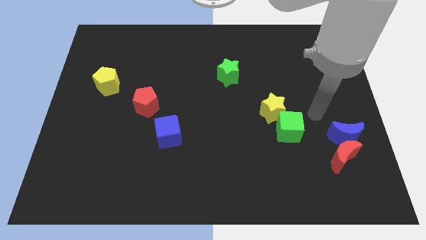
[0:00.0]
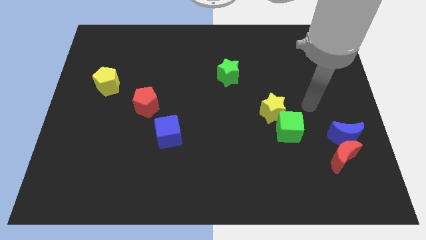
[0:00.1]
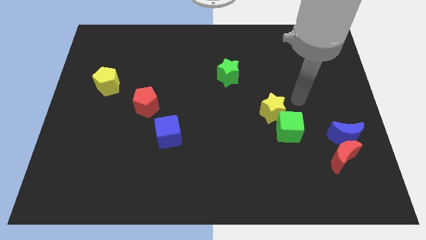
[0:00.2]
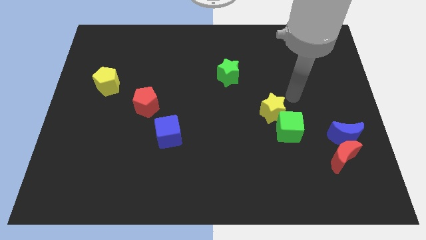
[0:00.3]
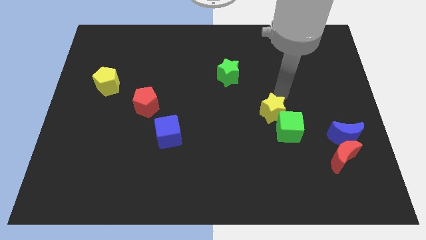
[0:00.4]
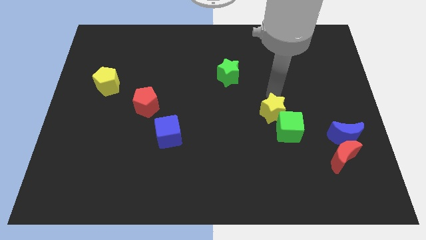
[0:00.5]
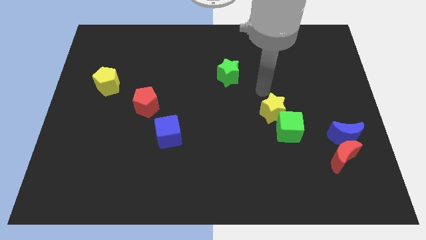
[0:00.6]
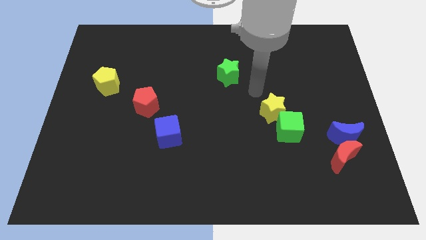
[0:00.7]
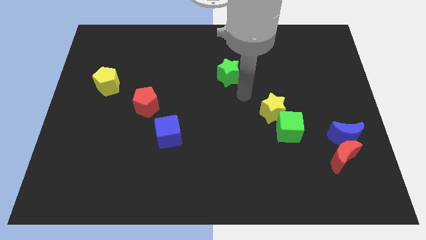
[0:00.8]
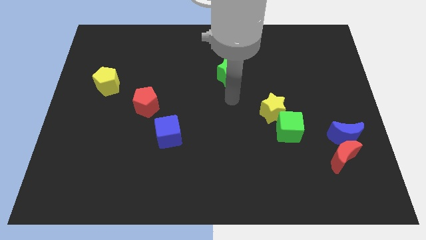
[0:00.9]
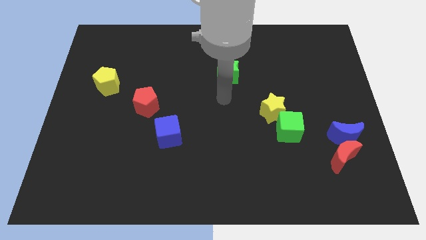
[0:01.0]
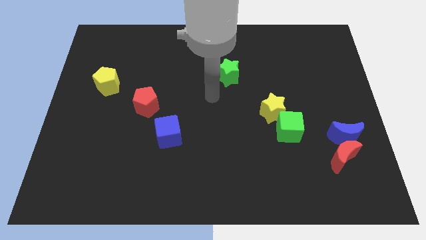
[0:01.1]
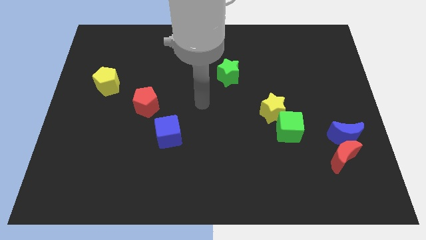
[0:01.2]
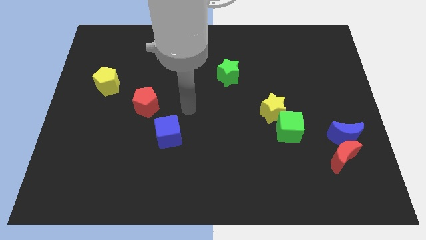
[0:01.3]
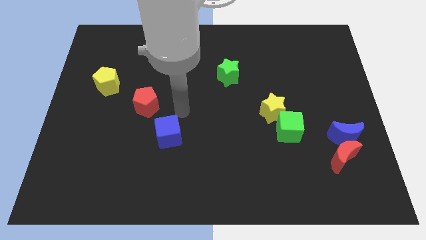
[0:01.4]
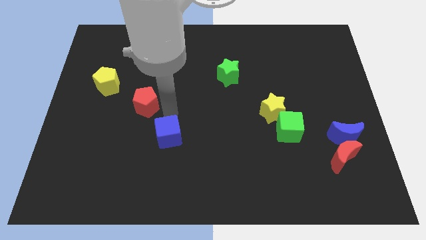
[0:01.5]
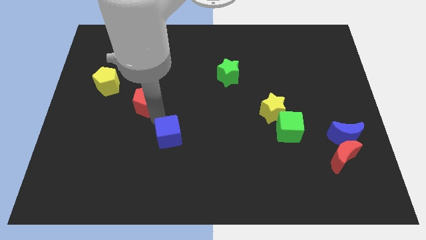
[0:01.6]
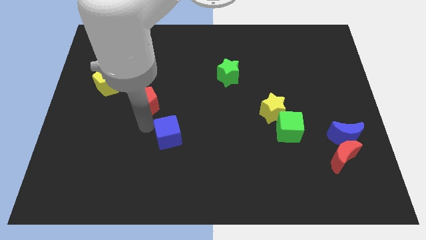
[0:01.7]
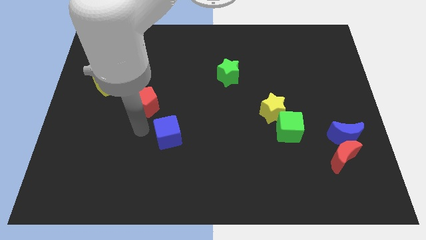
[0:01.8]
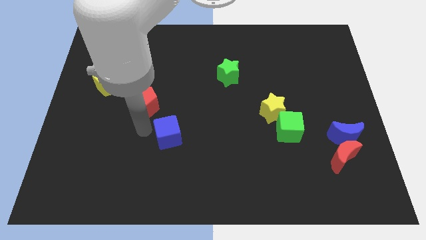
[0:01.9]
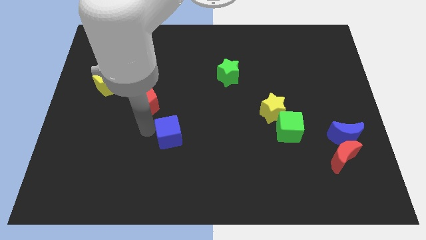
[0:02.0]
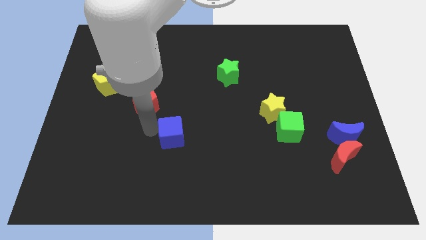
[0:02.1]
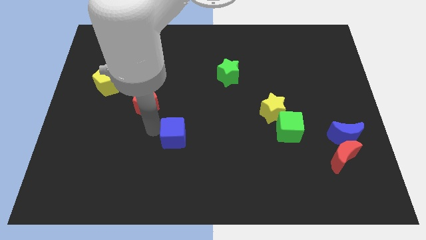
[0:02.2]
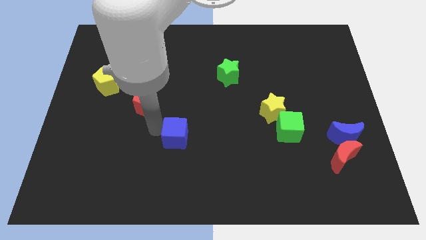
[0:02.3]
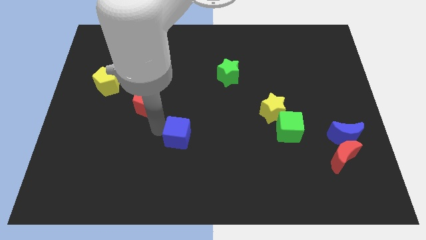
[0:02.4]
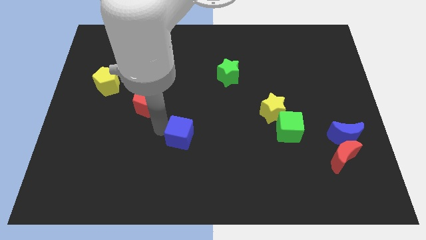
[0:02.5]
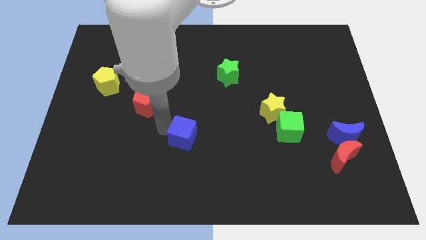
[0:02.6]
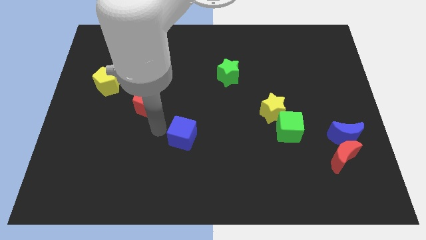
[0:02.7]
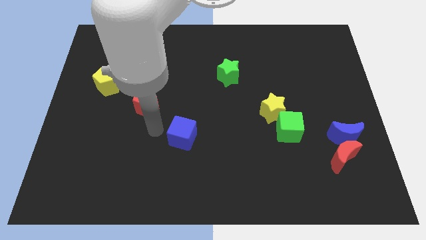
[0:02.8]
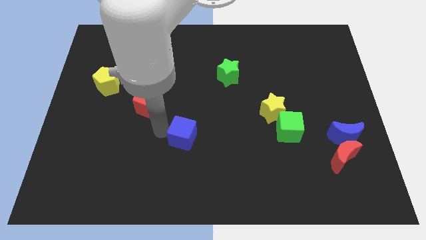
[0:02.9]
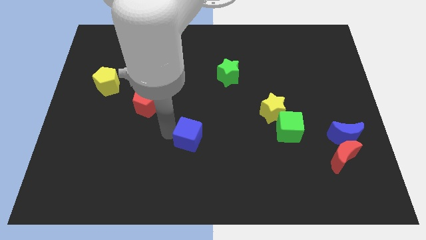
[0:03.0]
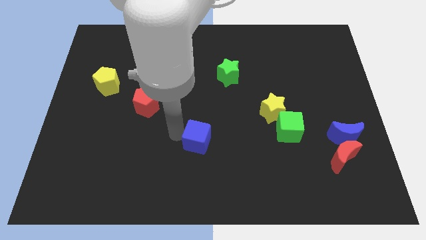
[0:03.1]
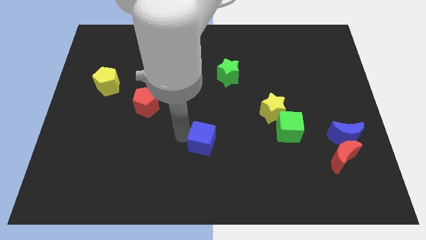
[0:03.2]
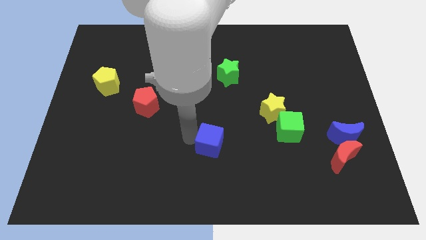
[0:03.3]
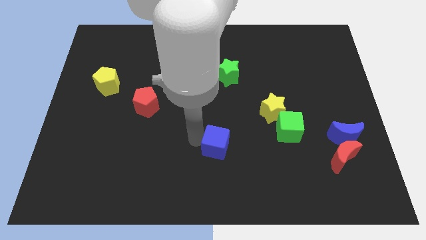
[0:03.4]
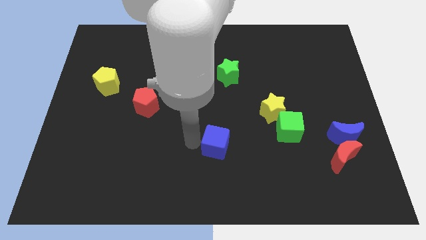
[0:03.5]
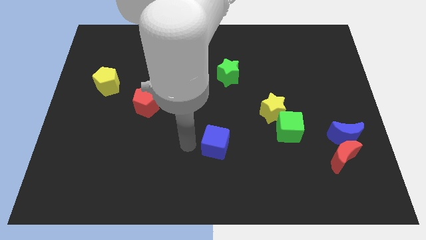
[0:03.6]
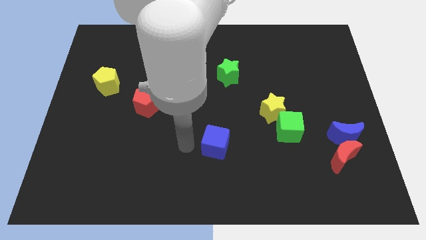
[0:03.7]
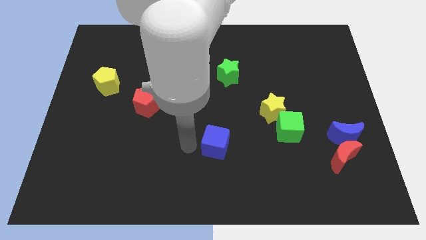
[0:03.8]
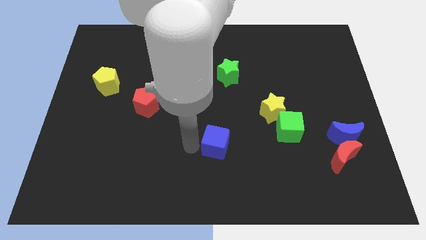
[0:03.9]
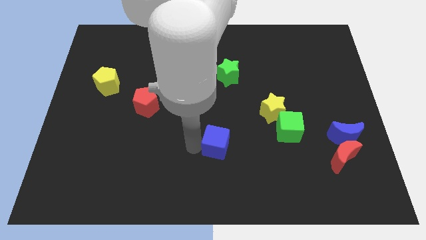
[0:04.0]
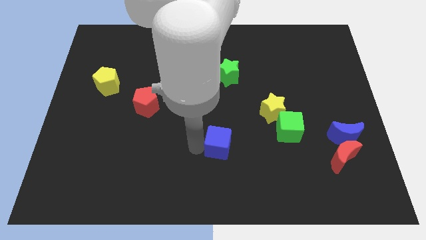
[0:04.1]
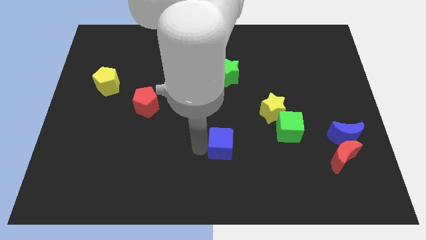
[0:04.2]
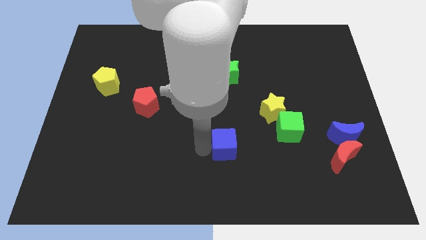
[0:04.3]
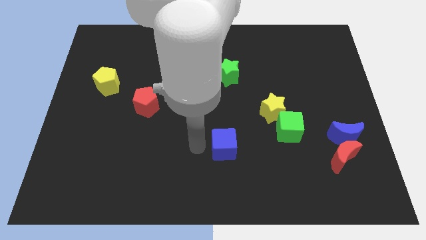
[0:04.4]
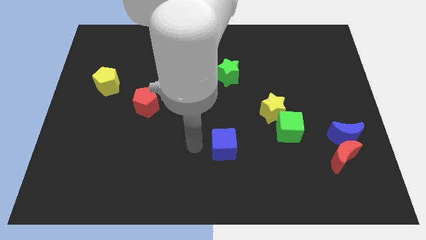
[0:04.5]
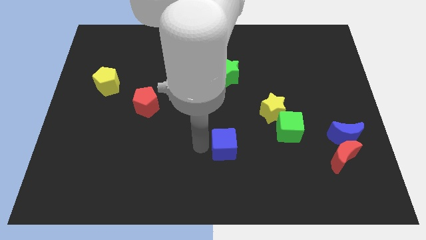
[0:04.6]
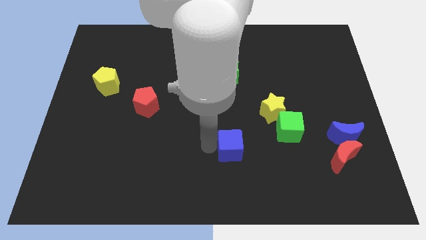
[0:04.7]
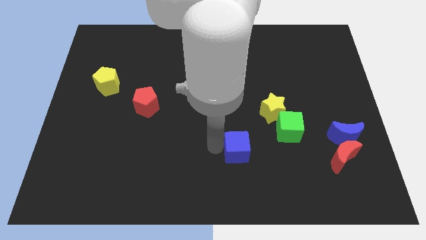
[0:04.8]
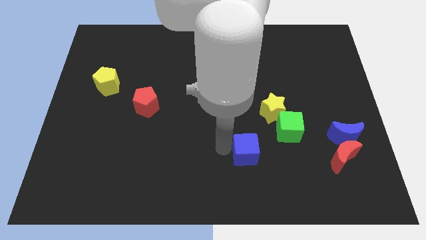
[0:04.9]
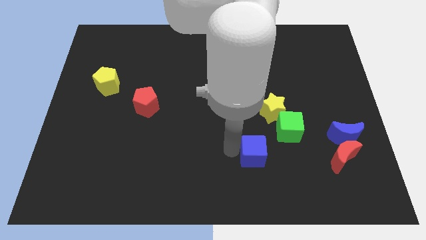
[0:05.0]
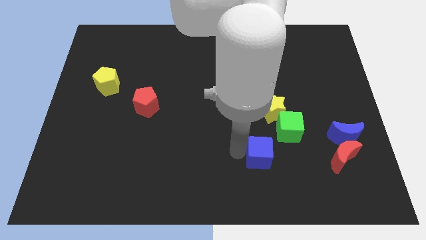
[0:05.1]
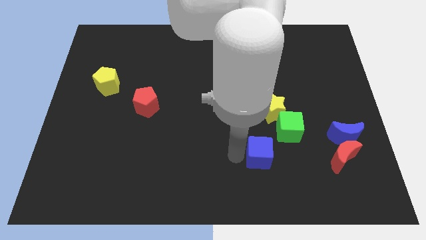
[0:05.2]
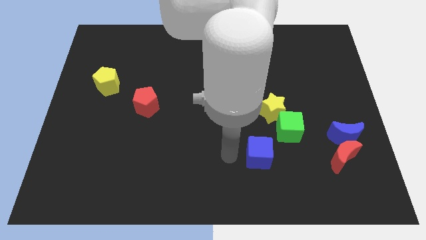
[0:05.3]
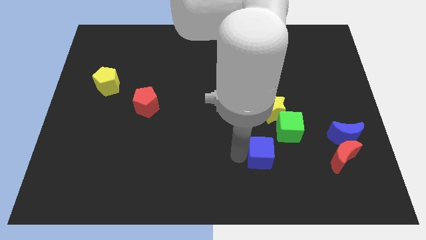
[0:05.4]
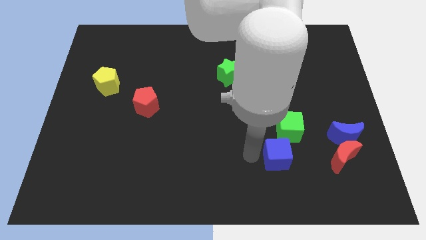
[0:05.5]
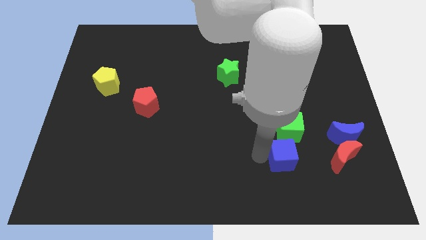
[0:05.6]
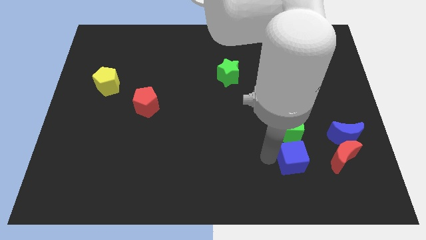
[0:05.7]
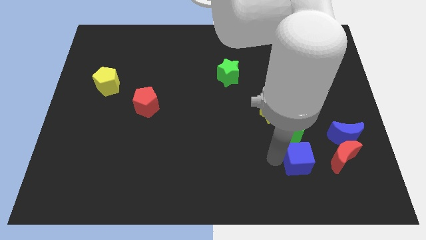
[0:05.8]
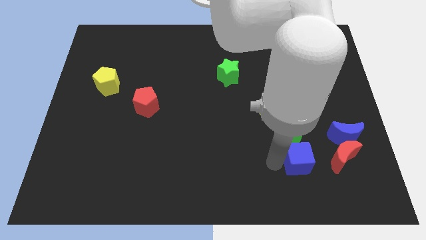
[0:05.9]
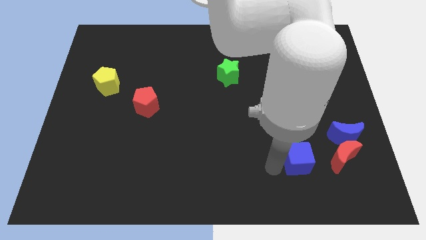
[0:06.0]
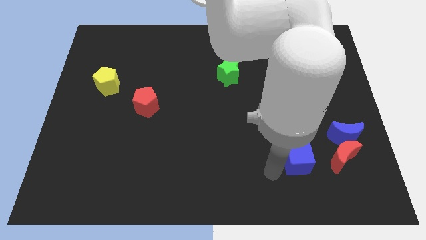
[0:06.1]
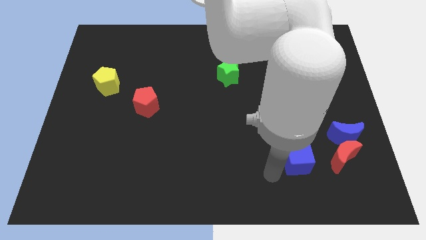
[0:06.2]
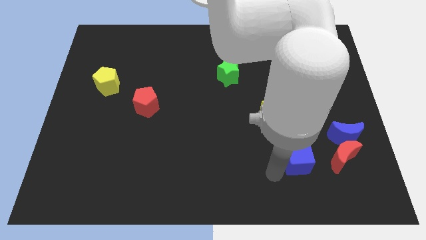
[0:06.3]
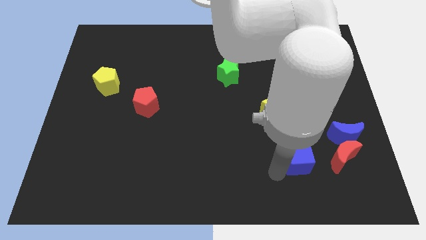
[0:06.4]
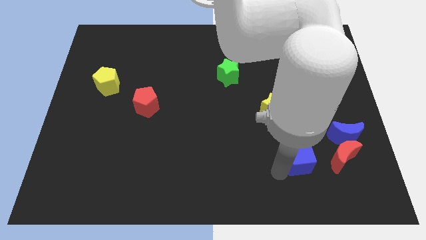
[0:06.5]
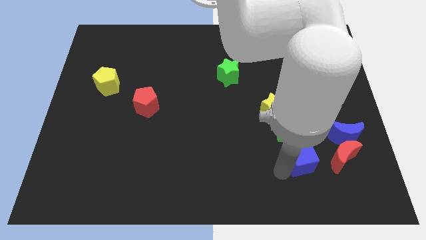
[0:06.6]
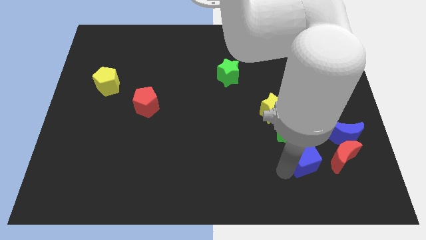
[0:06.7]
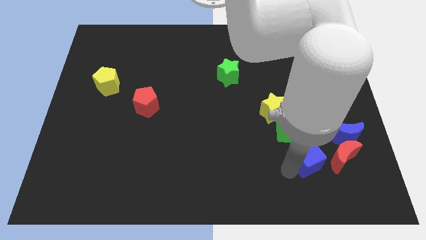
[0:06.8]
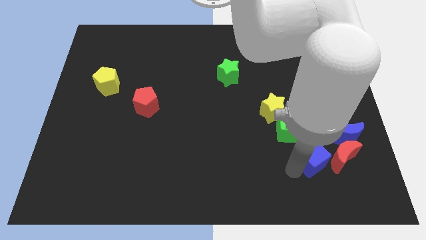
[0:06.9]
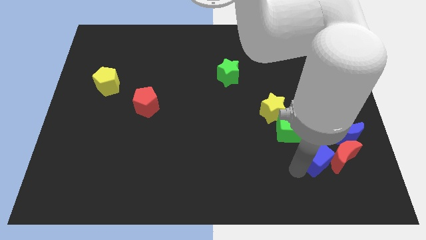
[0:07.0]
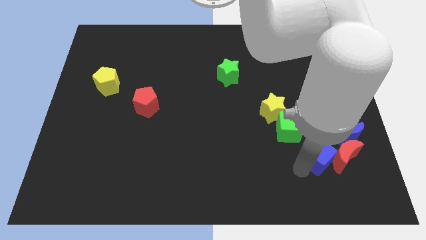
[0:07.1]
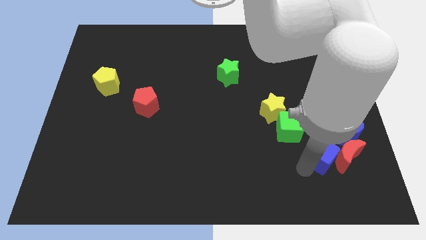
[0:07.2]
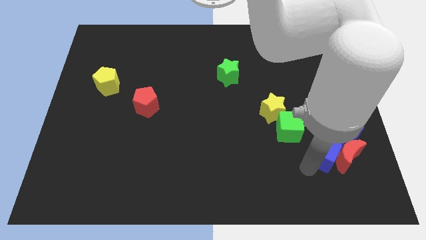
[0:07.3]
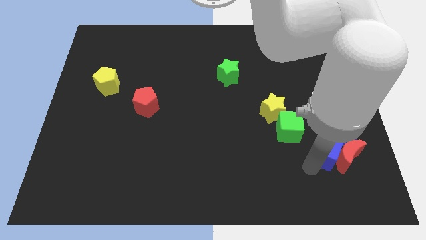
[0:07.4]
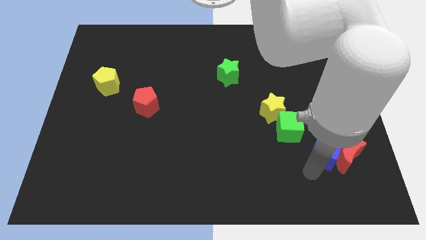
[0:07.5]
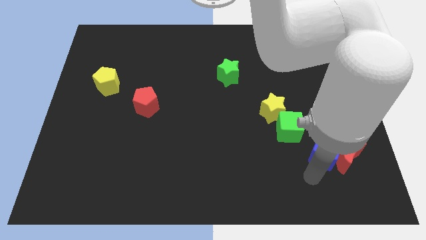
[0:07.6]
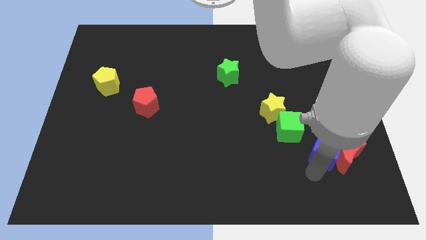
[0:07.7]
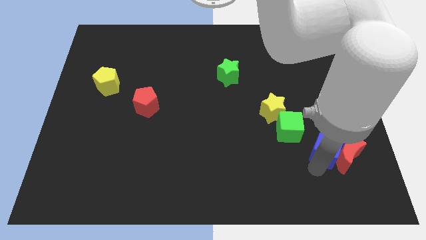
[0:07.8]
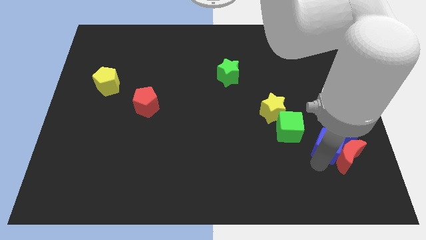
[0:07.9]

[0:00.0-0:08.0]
move the blue cube to the blue moon

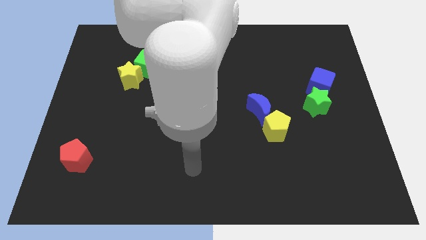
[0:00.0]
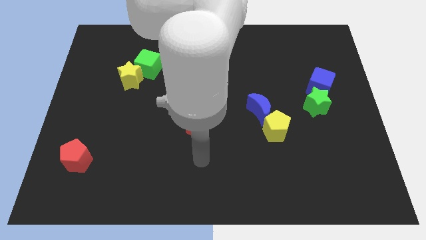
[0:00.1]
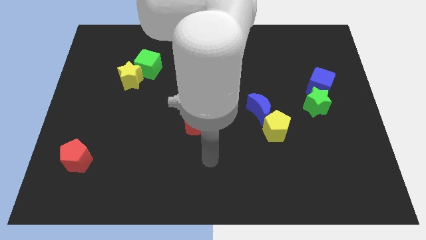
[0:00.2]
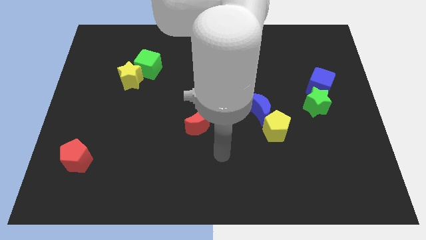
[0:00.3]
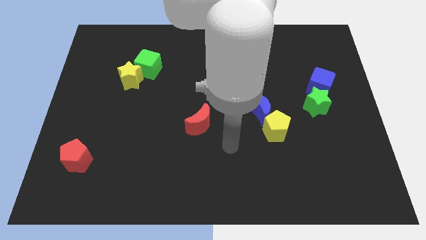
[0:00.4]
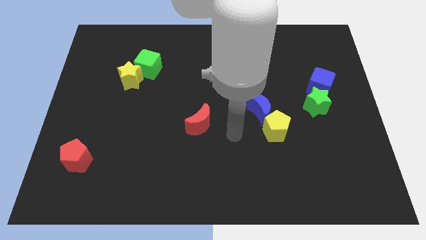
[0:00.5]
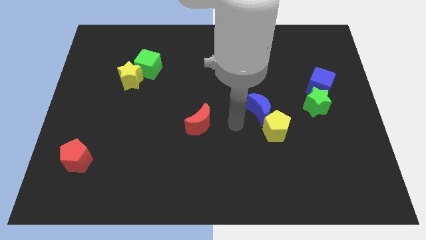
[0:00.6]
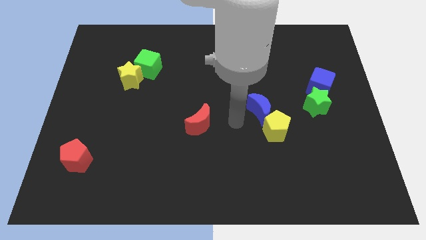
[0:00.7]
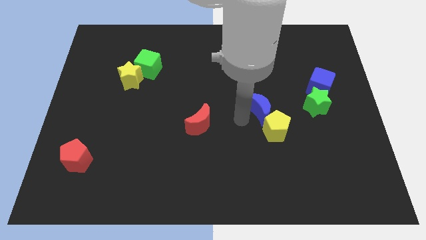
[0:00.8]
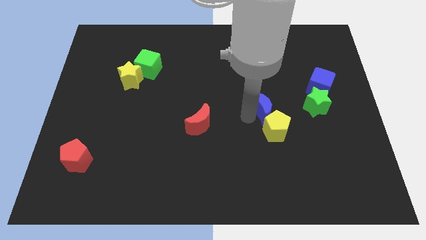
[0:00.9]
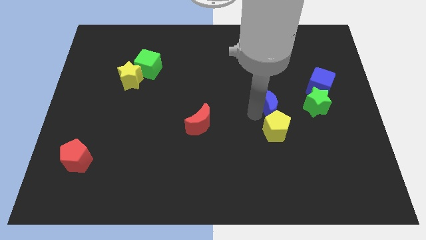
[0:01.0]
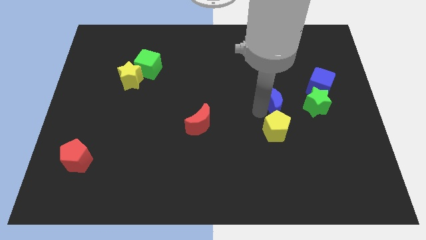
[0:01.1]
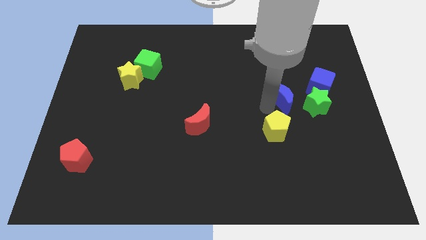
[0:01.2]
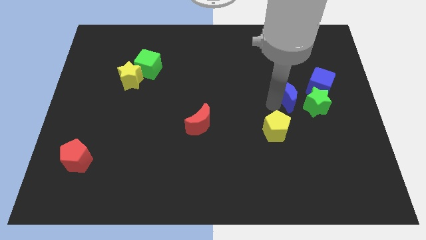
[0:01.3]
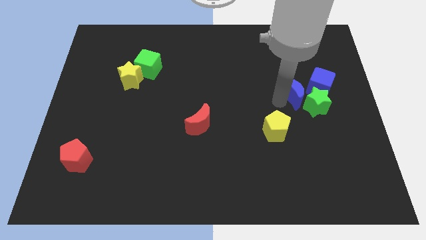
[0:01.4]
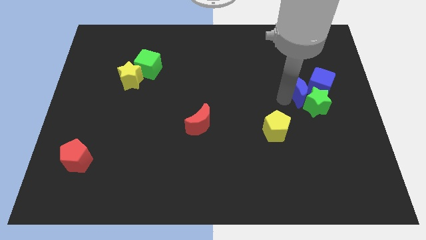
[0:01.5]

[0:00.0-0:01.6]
push the blue moon next to the blue cube
